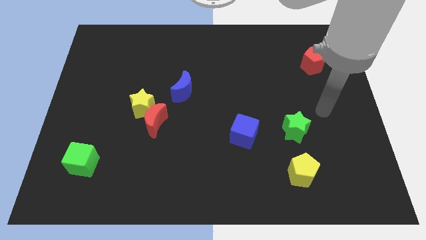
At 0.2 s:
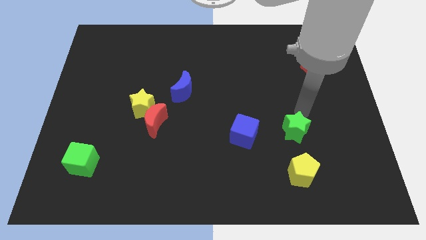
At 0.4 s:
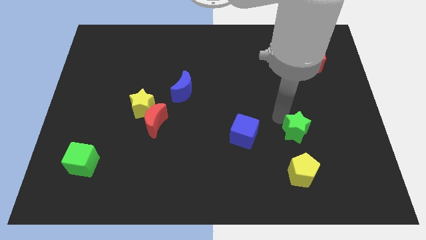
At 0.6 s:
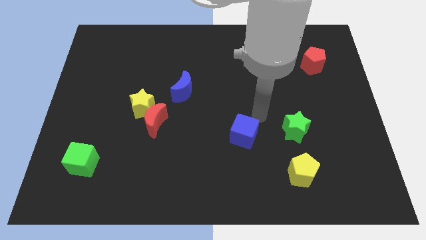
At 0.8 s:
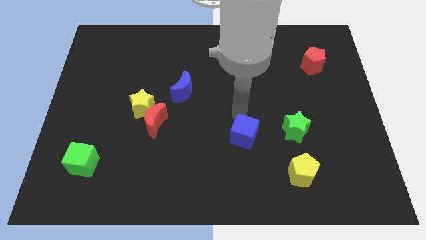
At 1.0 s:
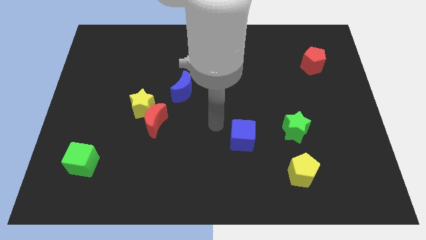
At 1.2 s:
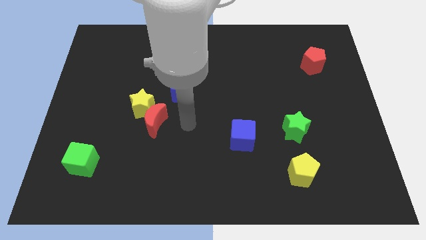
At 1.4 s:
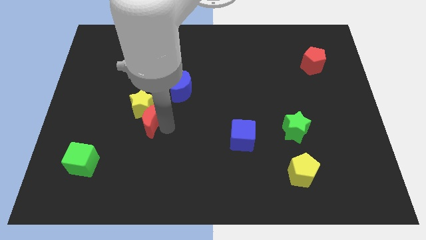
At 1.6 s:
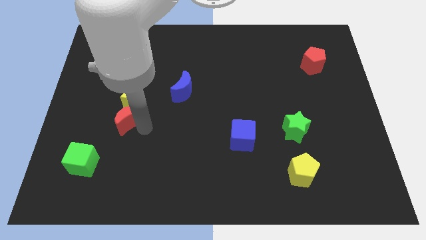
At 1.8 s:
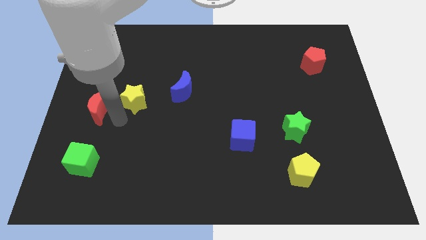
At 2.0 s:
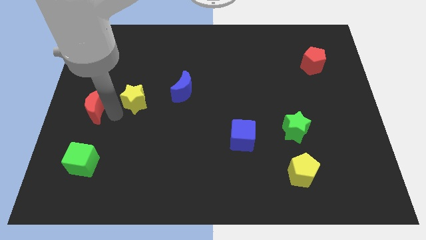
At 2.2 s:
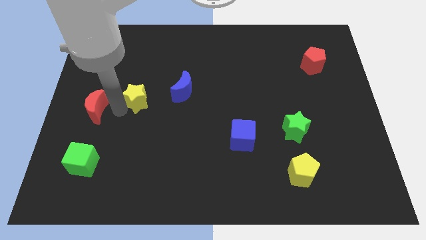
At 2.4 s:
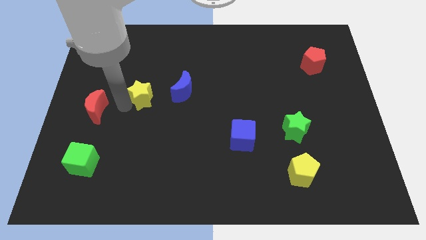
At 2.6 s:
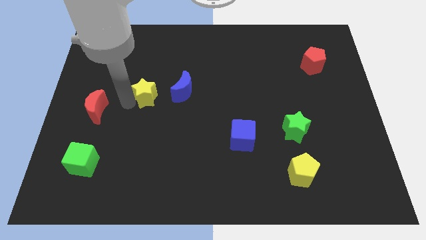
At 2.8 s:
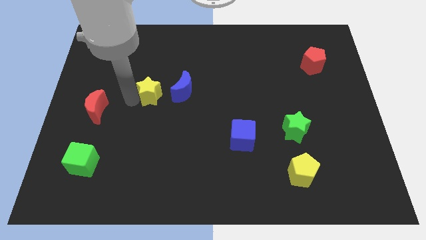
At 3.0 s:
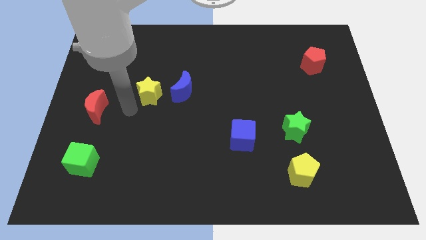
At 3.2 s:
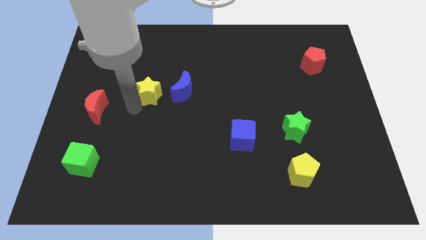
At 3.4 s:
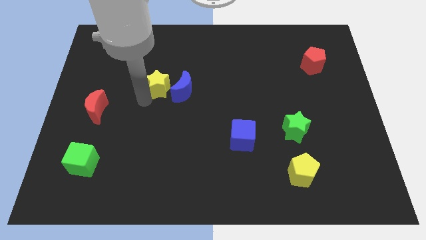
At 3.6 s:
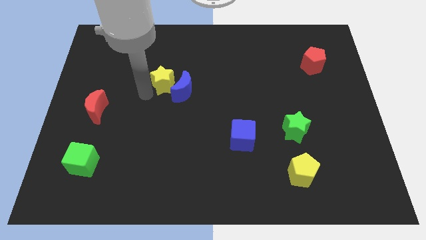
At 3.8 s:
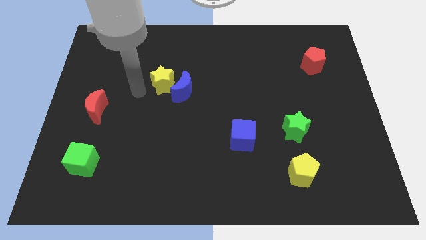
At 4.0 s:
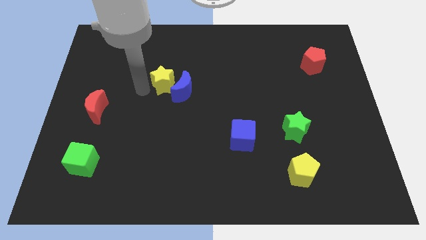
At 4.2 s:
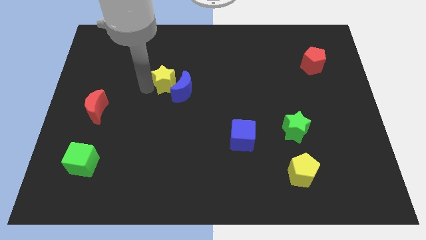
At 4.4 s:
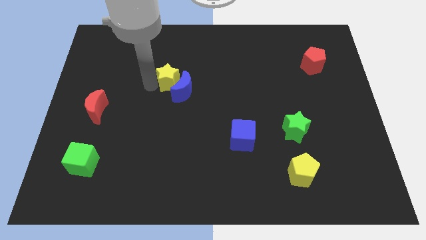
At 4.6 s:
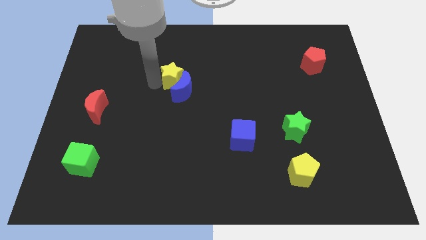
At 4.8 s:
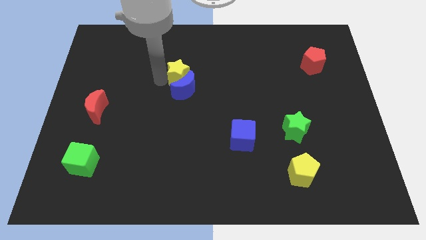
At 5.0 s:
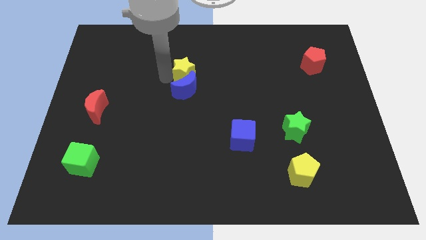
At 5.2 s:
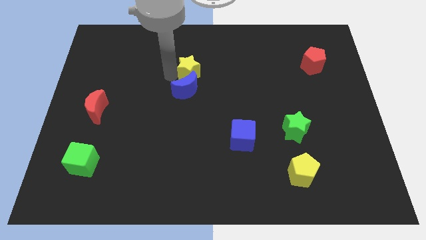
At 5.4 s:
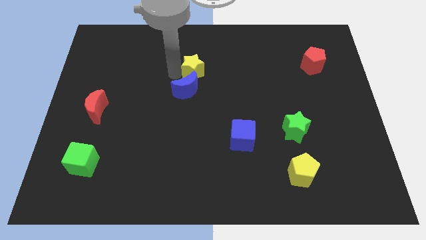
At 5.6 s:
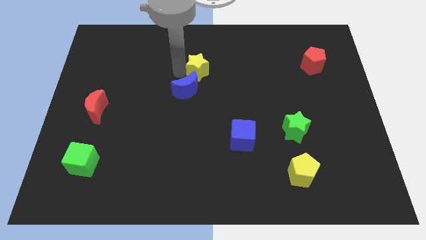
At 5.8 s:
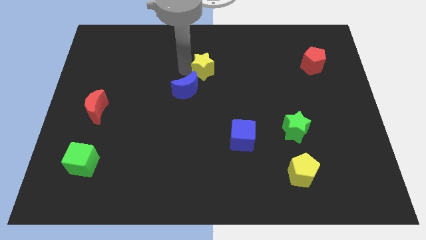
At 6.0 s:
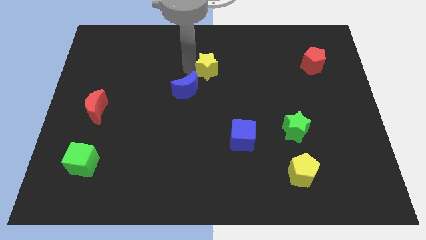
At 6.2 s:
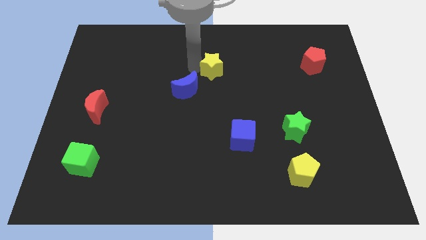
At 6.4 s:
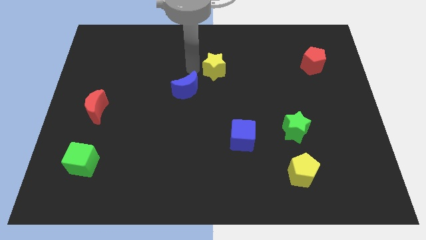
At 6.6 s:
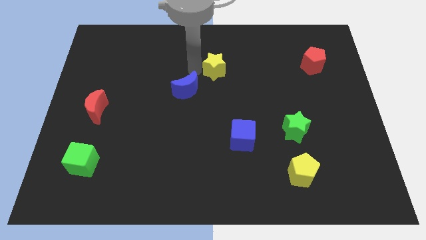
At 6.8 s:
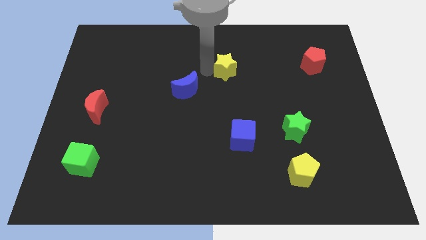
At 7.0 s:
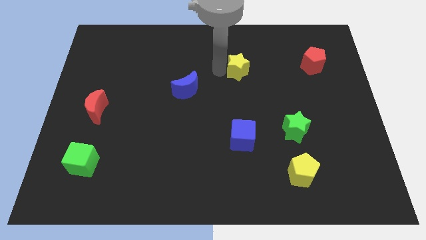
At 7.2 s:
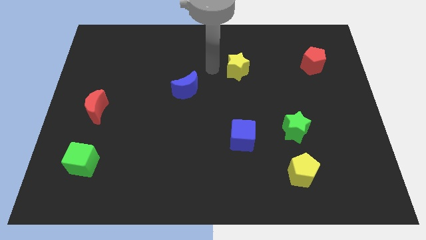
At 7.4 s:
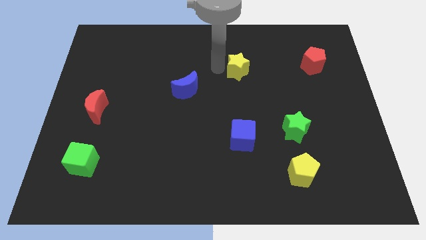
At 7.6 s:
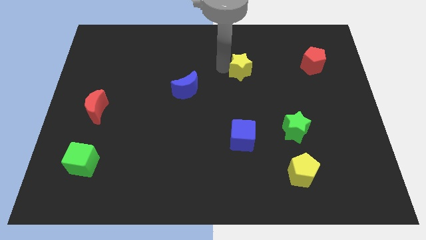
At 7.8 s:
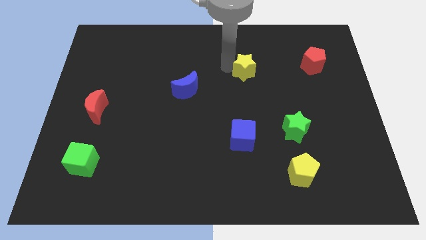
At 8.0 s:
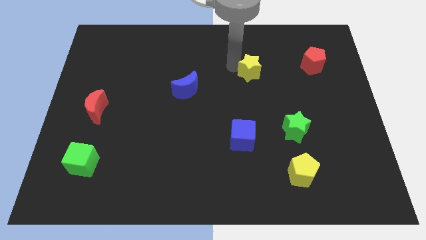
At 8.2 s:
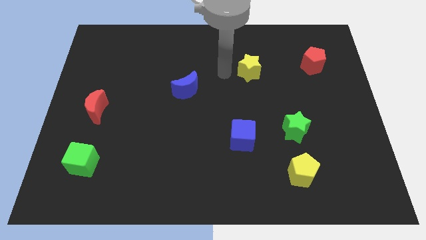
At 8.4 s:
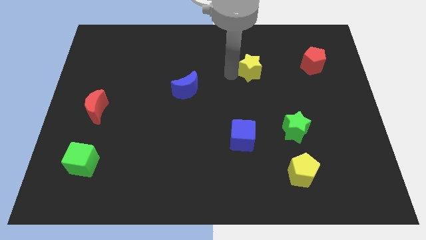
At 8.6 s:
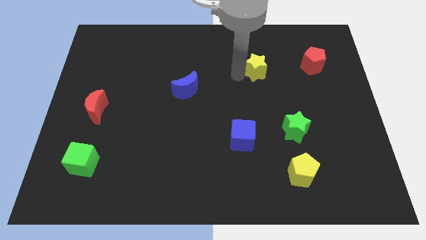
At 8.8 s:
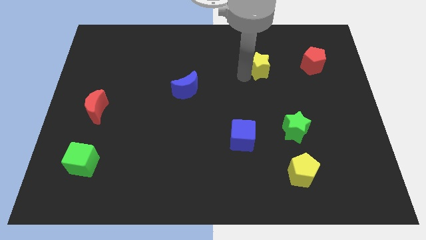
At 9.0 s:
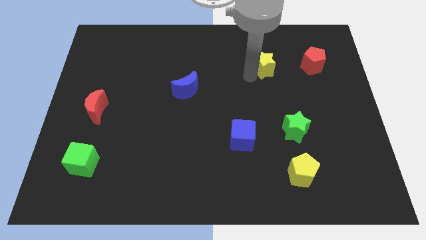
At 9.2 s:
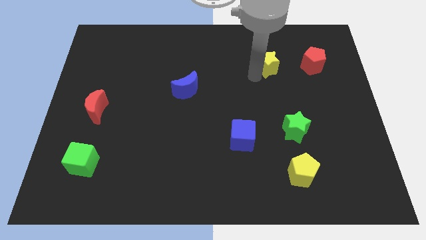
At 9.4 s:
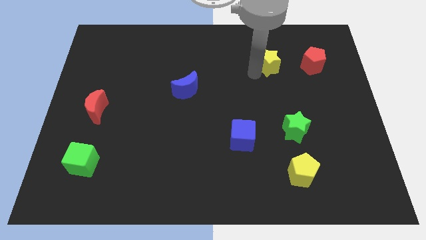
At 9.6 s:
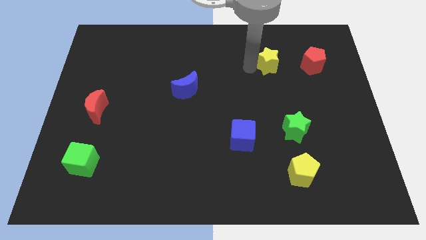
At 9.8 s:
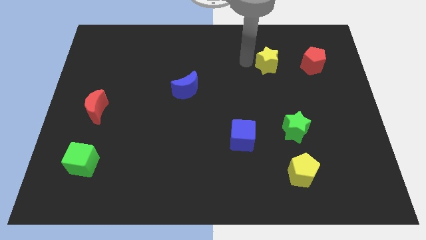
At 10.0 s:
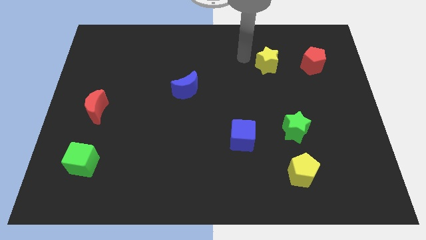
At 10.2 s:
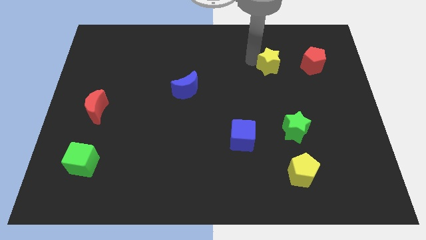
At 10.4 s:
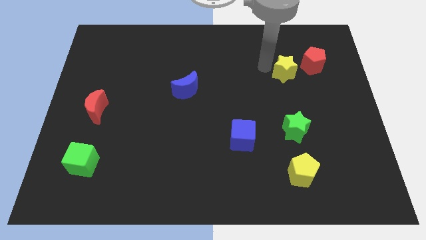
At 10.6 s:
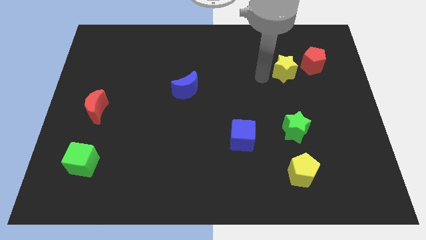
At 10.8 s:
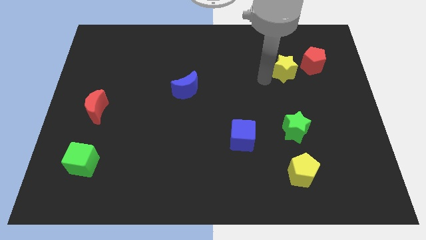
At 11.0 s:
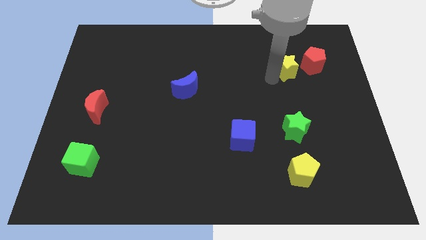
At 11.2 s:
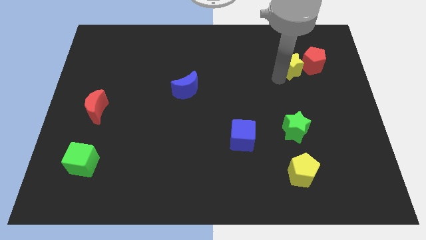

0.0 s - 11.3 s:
slide the yellow star next to the red pentagon

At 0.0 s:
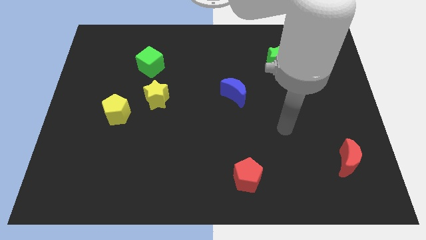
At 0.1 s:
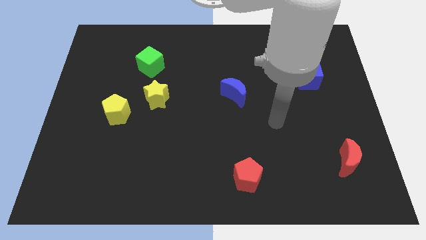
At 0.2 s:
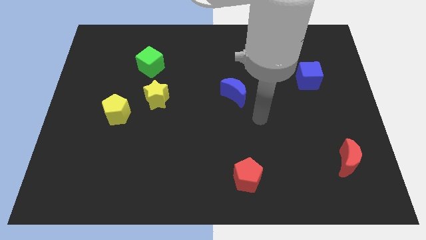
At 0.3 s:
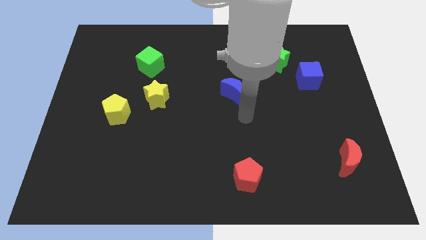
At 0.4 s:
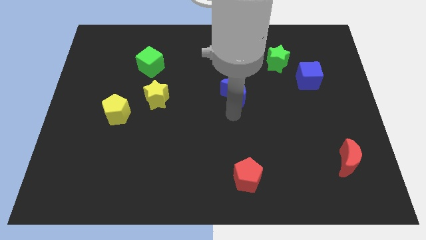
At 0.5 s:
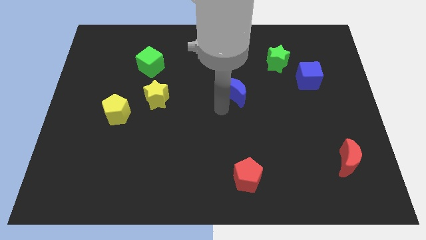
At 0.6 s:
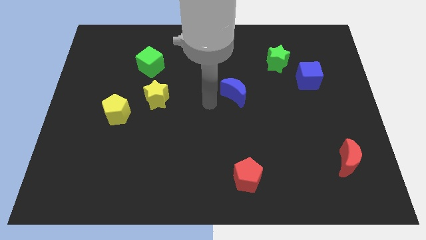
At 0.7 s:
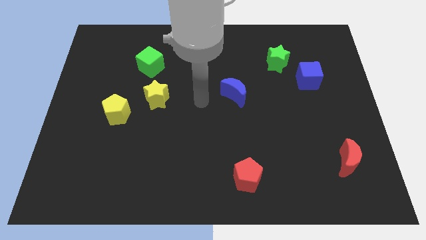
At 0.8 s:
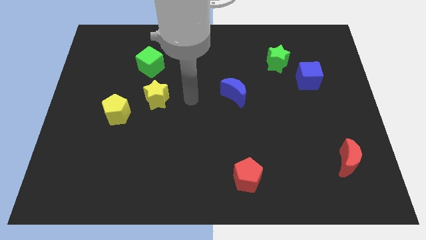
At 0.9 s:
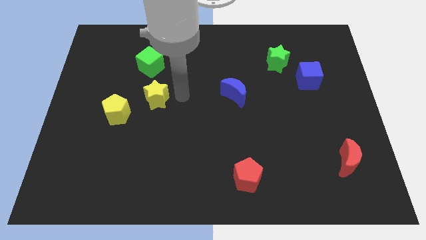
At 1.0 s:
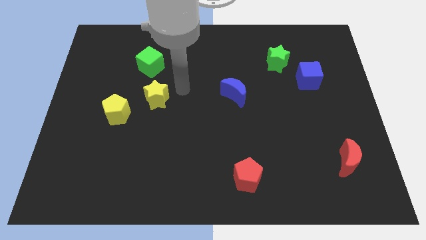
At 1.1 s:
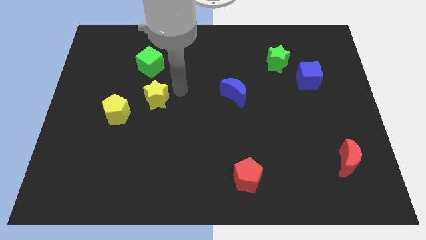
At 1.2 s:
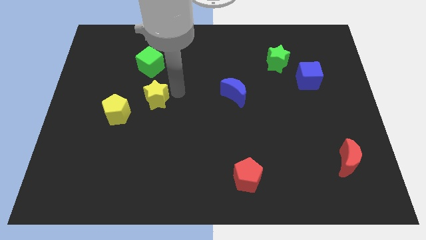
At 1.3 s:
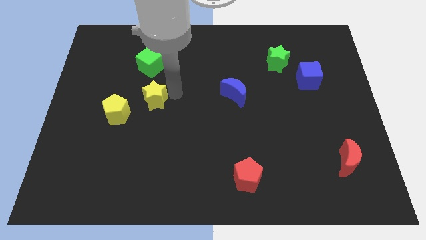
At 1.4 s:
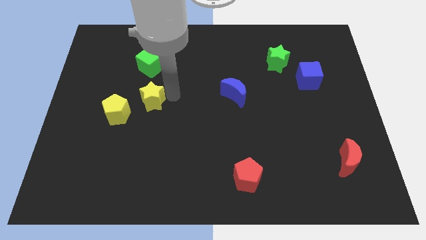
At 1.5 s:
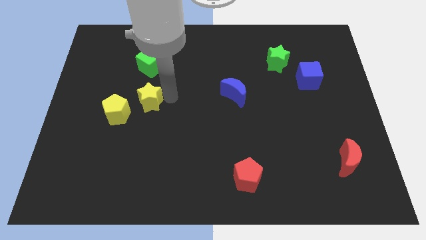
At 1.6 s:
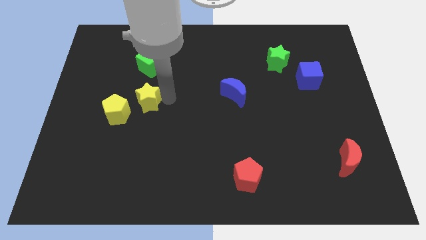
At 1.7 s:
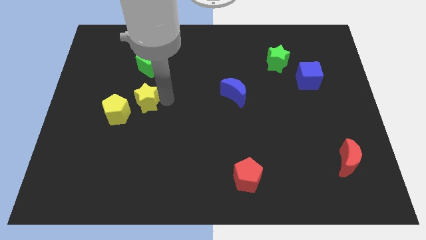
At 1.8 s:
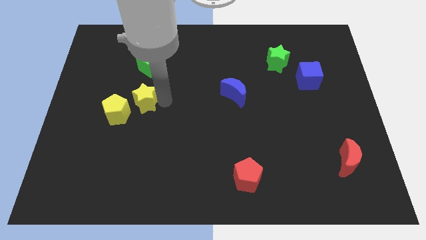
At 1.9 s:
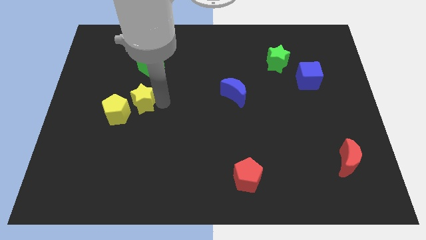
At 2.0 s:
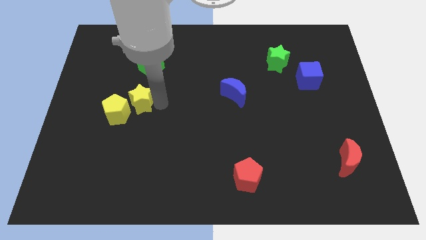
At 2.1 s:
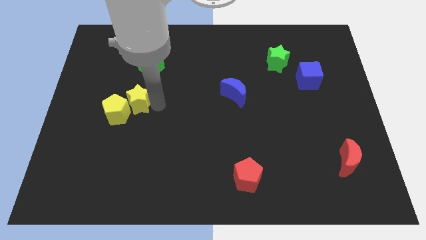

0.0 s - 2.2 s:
move the yellow star to the yellow pentagon
